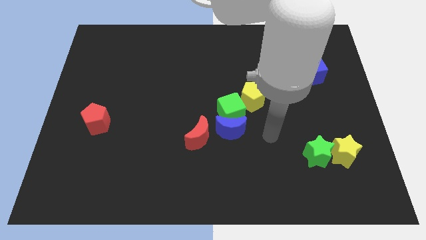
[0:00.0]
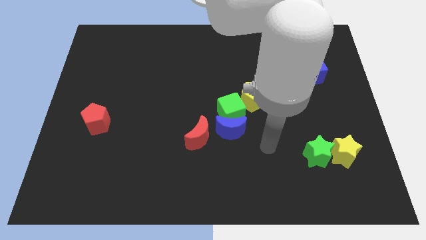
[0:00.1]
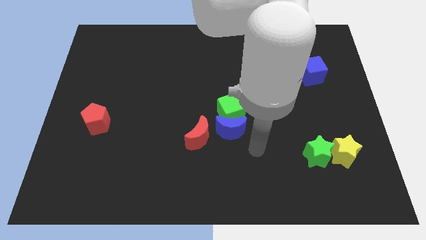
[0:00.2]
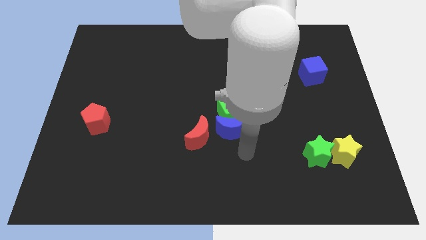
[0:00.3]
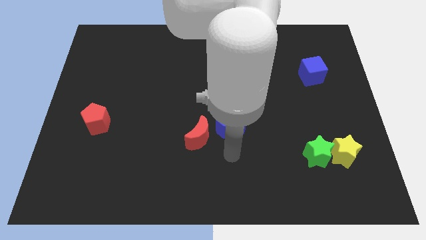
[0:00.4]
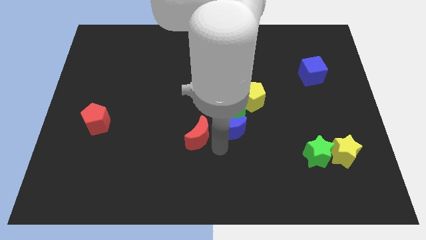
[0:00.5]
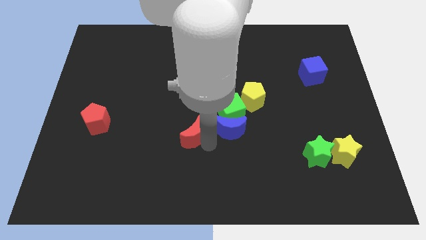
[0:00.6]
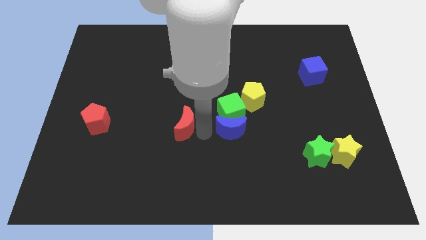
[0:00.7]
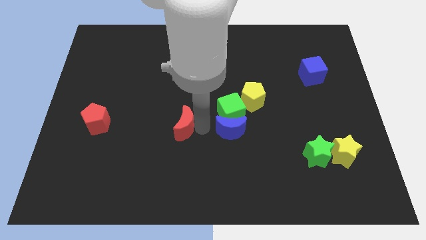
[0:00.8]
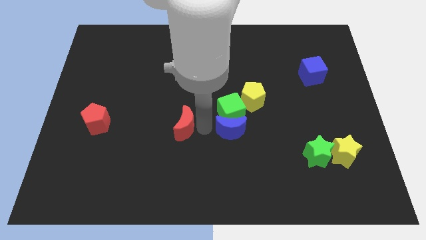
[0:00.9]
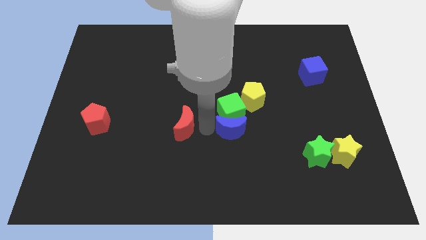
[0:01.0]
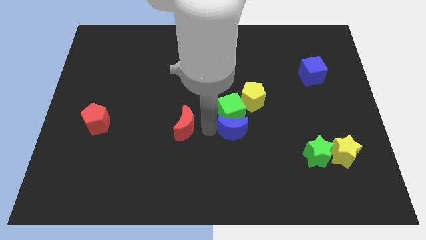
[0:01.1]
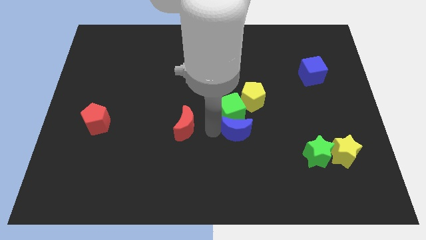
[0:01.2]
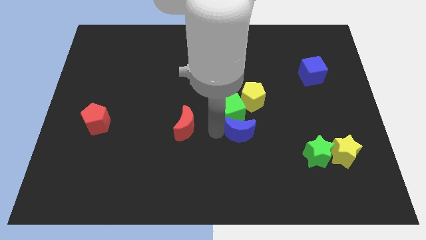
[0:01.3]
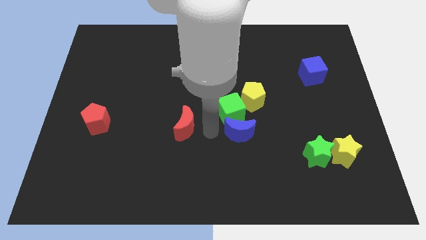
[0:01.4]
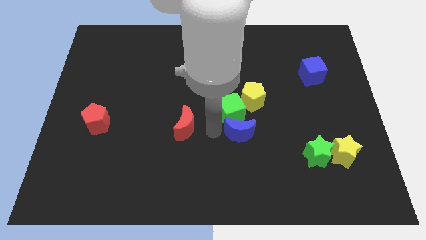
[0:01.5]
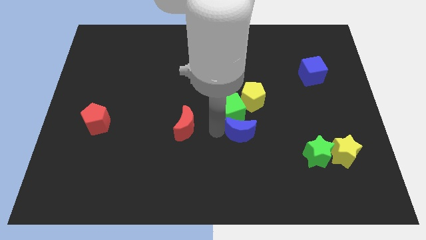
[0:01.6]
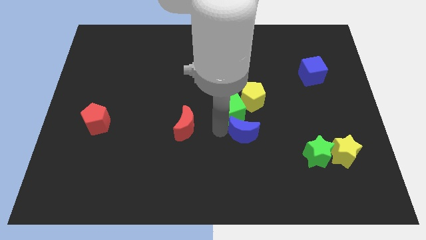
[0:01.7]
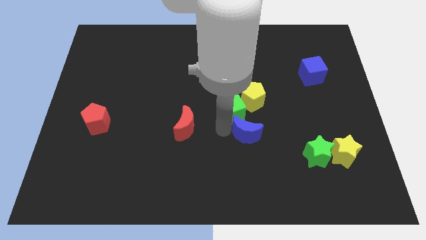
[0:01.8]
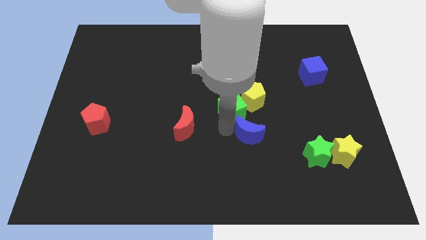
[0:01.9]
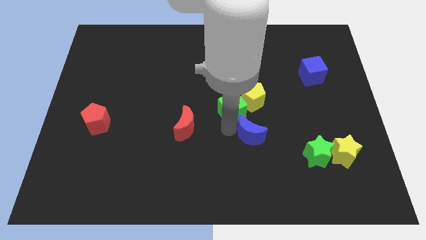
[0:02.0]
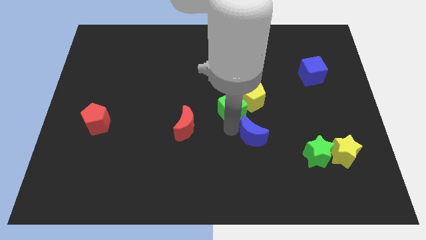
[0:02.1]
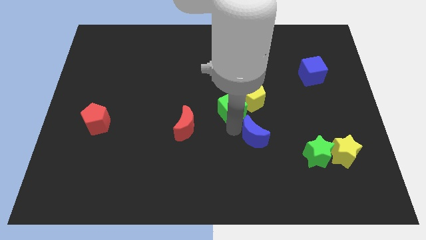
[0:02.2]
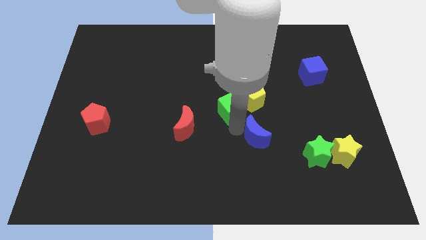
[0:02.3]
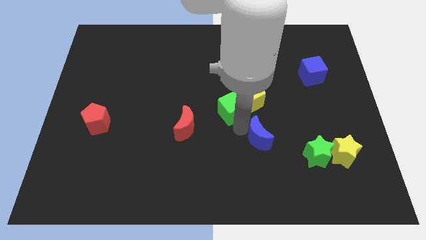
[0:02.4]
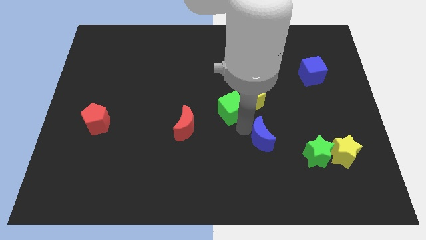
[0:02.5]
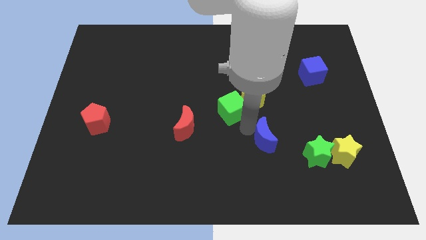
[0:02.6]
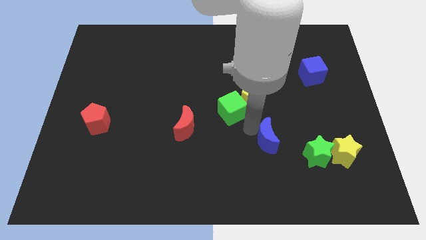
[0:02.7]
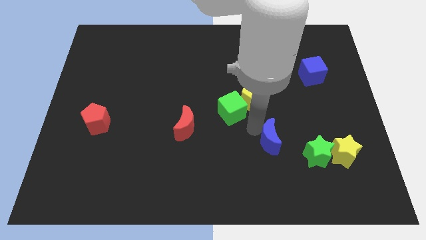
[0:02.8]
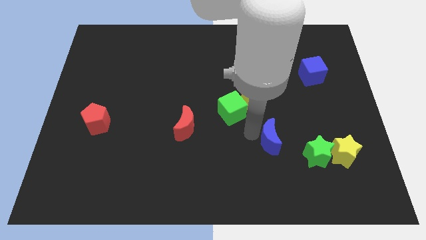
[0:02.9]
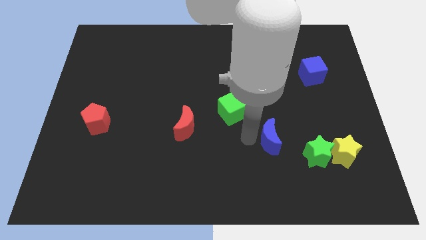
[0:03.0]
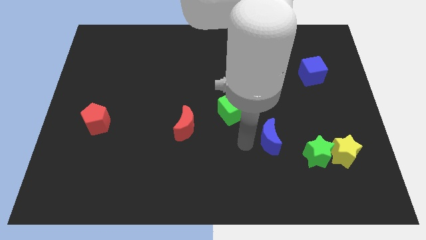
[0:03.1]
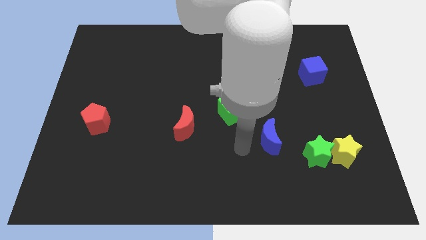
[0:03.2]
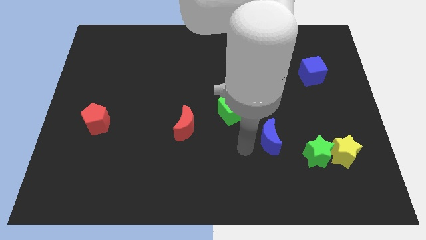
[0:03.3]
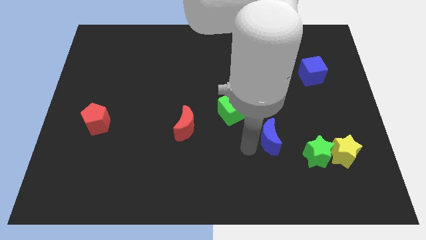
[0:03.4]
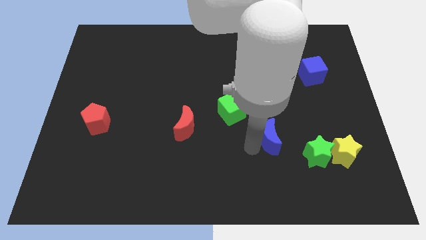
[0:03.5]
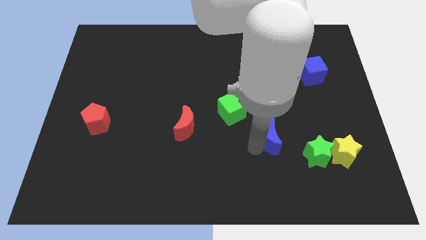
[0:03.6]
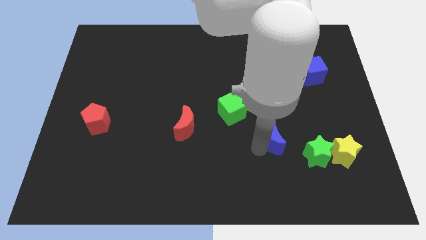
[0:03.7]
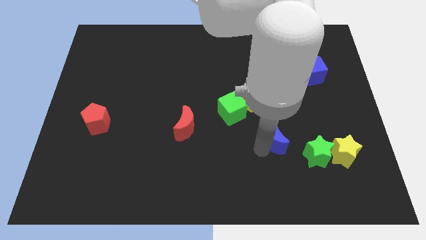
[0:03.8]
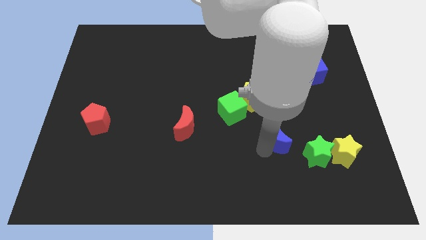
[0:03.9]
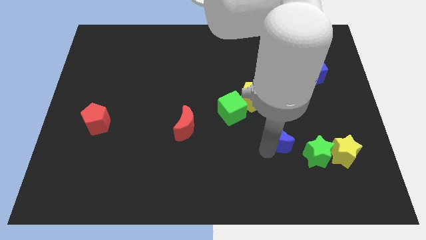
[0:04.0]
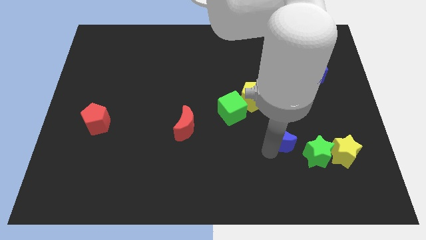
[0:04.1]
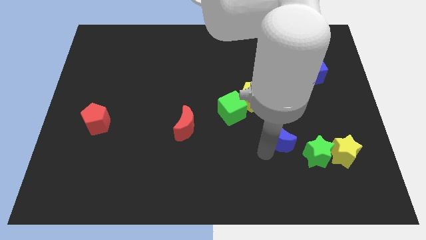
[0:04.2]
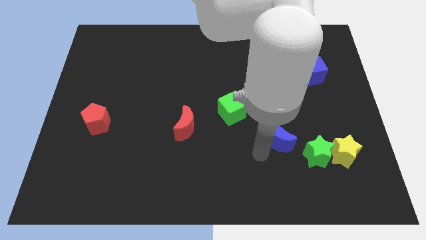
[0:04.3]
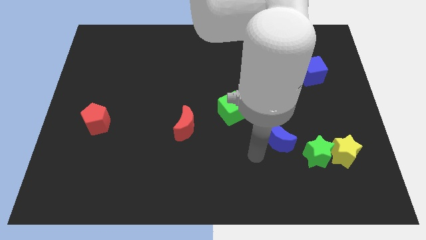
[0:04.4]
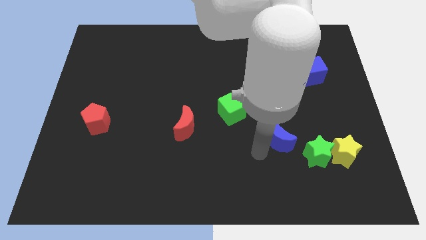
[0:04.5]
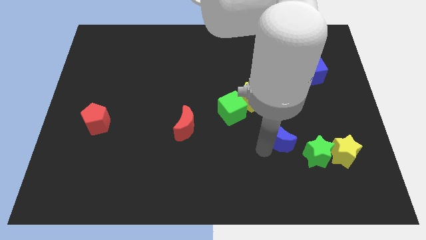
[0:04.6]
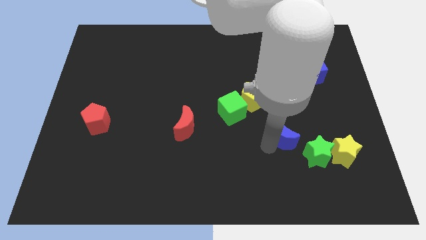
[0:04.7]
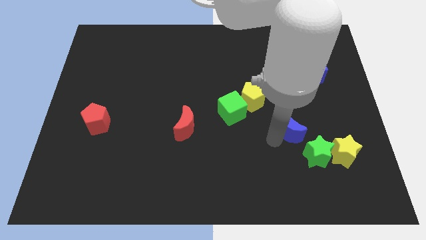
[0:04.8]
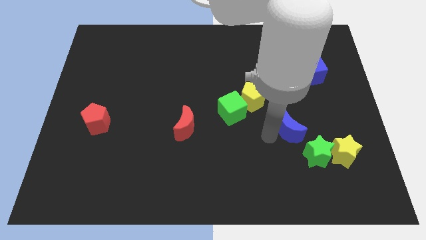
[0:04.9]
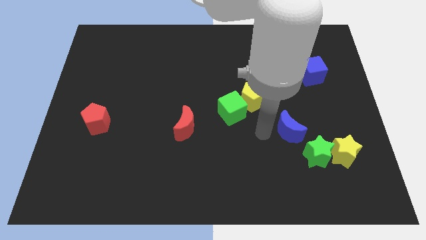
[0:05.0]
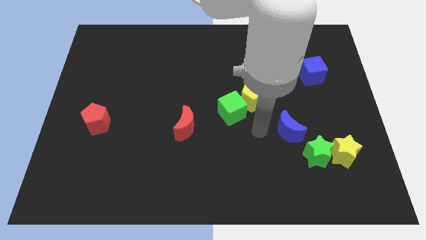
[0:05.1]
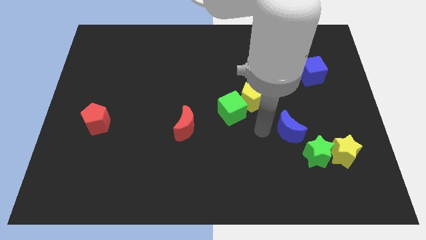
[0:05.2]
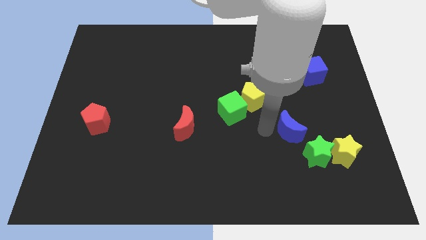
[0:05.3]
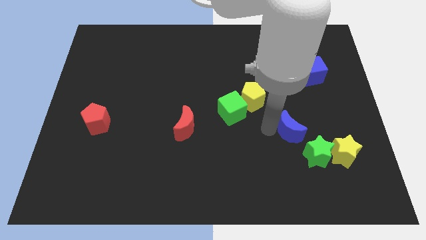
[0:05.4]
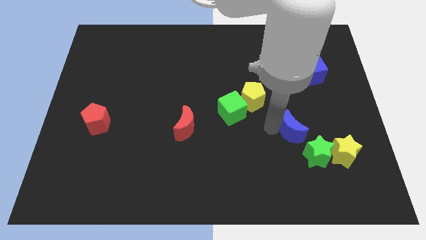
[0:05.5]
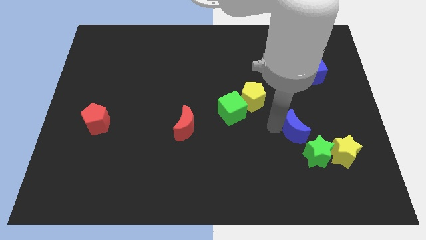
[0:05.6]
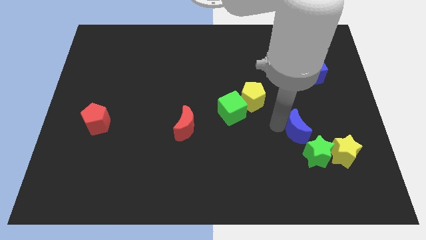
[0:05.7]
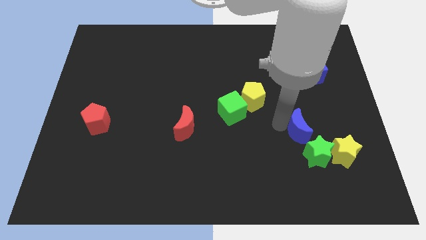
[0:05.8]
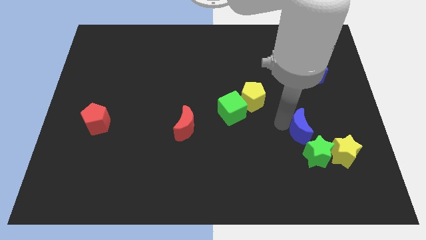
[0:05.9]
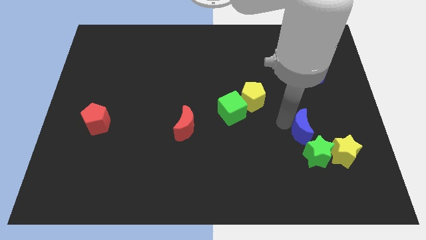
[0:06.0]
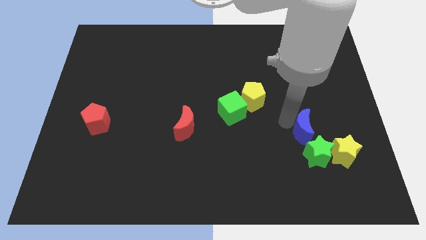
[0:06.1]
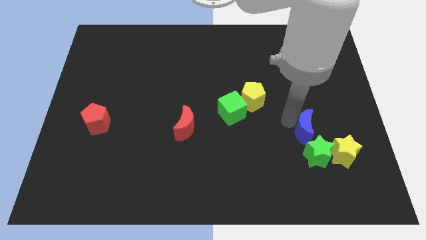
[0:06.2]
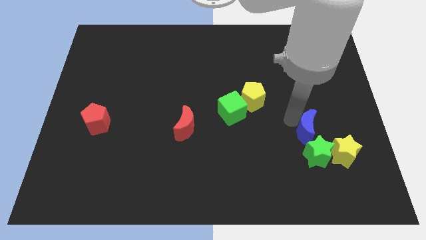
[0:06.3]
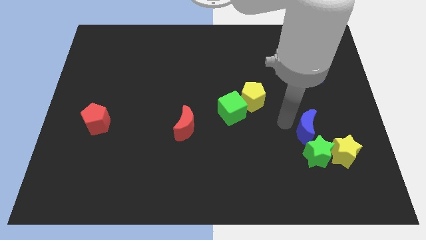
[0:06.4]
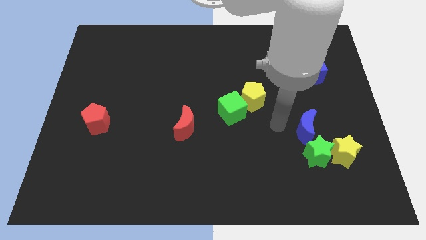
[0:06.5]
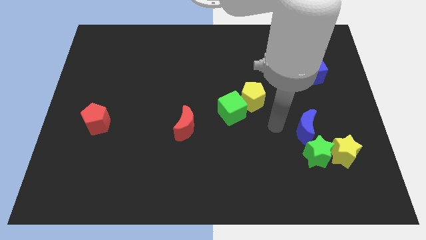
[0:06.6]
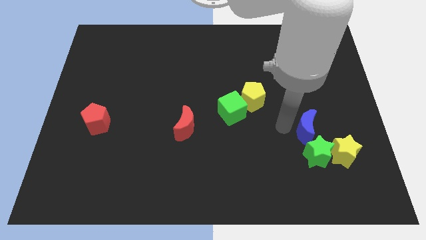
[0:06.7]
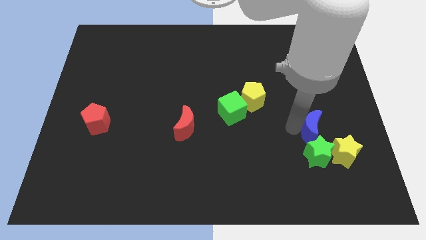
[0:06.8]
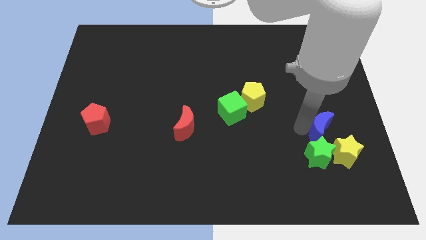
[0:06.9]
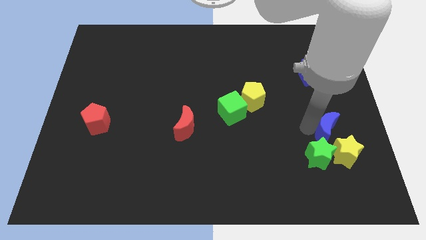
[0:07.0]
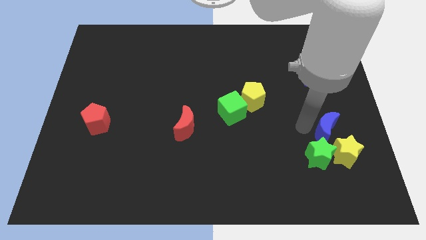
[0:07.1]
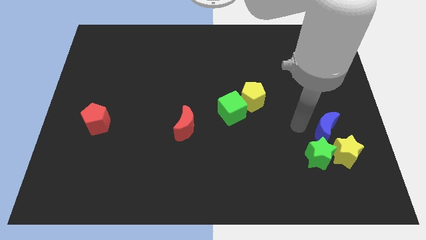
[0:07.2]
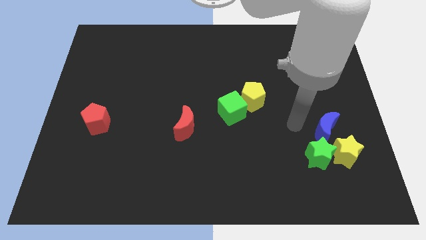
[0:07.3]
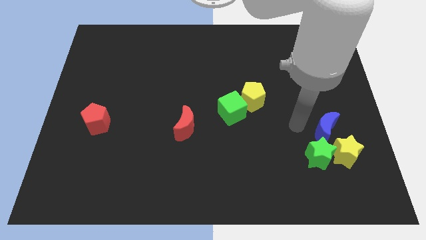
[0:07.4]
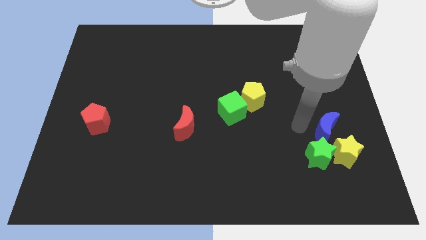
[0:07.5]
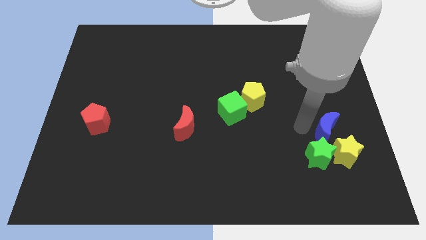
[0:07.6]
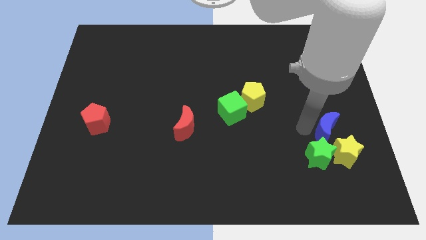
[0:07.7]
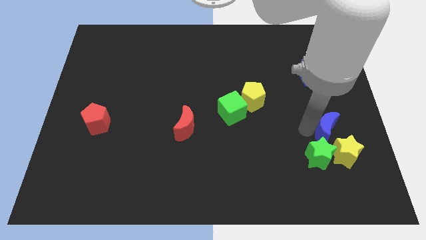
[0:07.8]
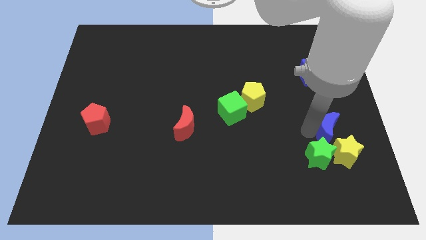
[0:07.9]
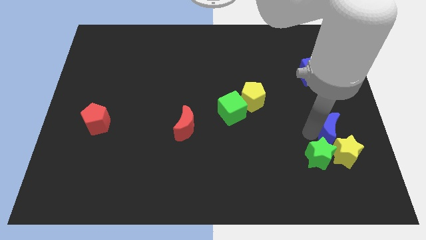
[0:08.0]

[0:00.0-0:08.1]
move the blue moon close to the yellow star
